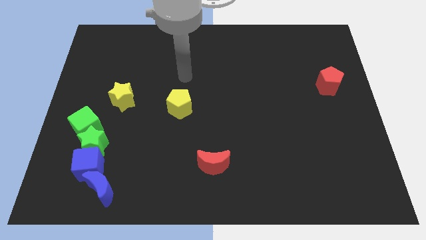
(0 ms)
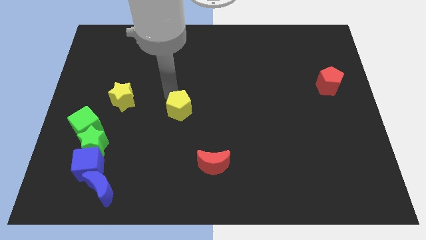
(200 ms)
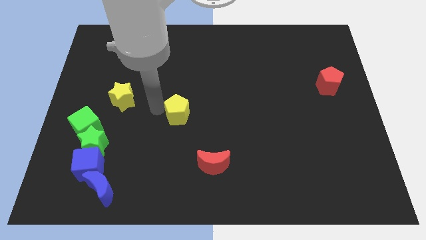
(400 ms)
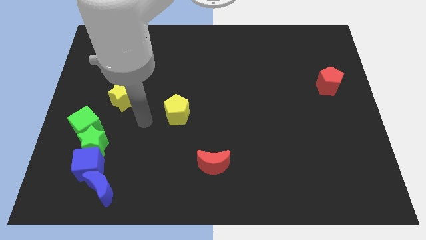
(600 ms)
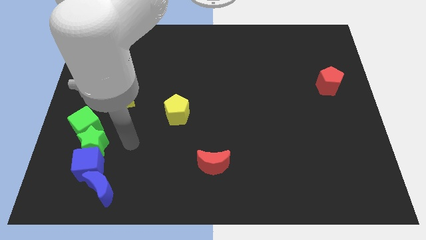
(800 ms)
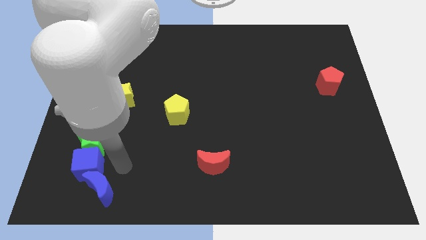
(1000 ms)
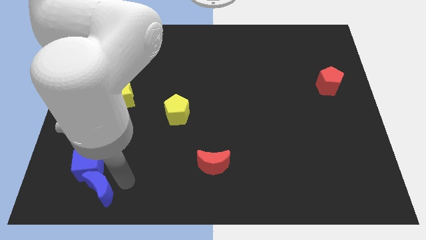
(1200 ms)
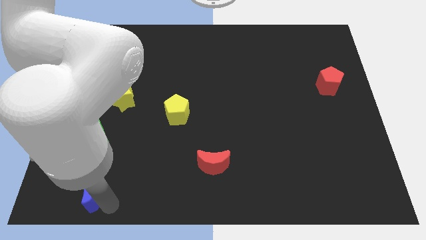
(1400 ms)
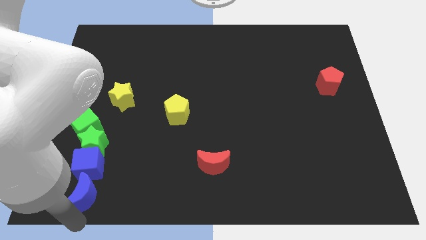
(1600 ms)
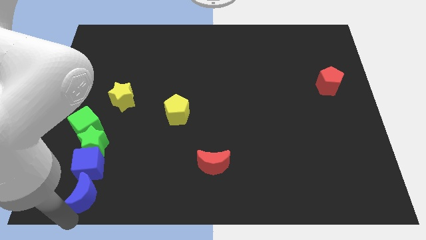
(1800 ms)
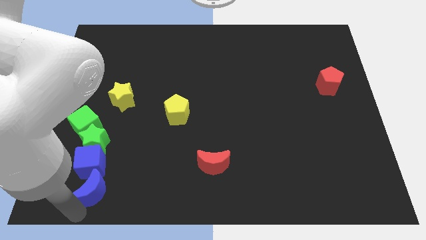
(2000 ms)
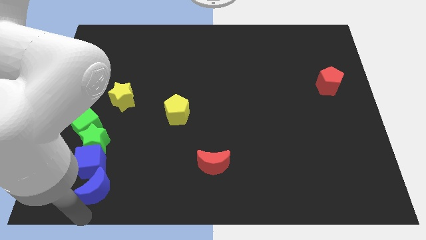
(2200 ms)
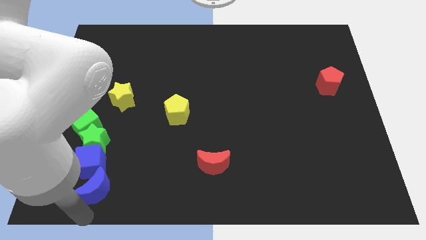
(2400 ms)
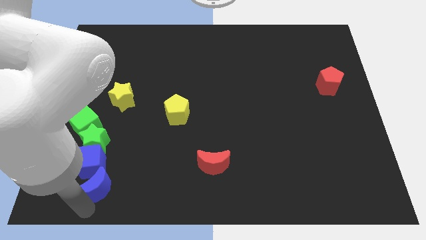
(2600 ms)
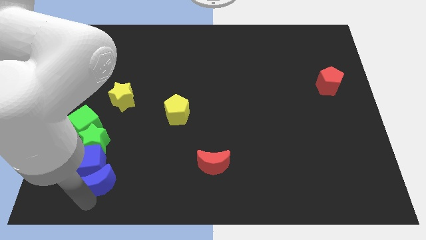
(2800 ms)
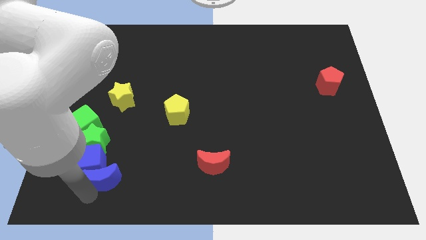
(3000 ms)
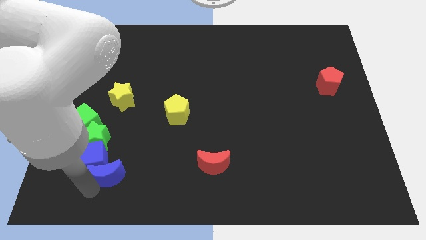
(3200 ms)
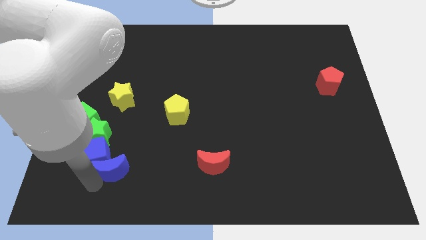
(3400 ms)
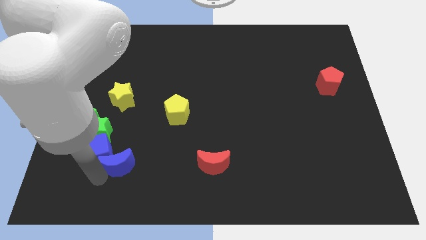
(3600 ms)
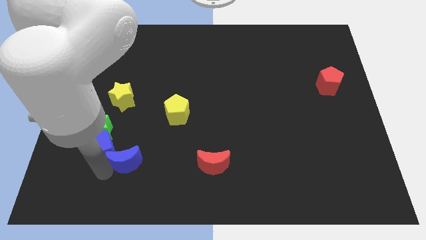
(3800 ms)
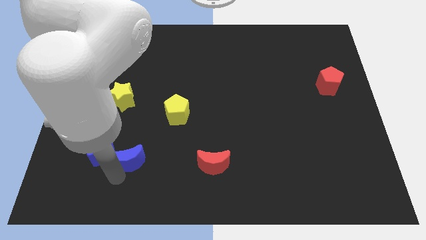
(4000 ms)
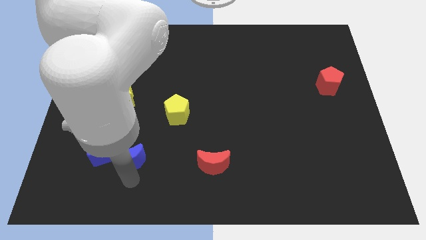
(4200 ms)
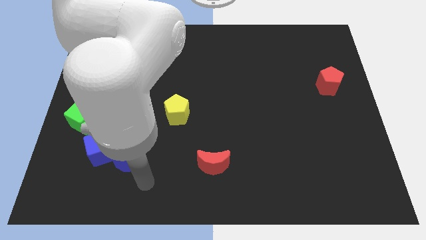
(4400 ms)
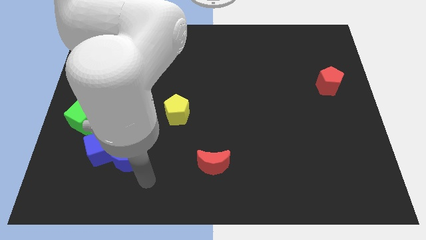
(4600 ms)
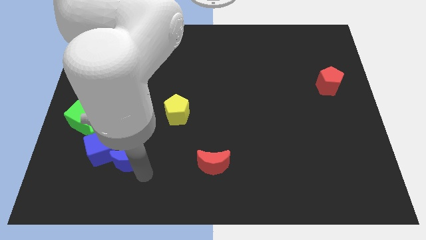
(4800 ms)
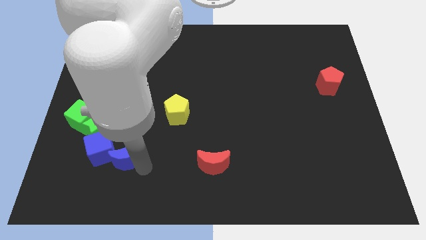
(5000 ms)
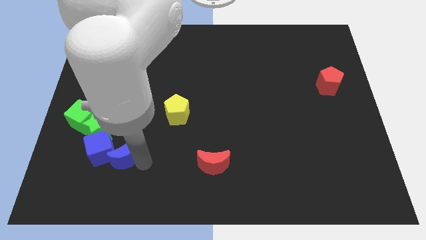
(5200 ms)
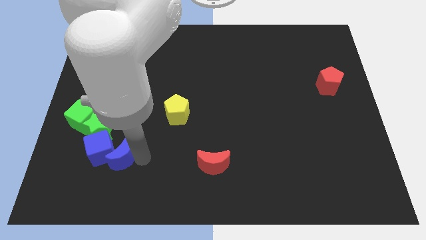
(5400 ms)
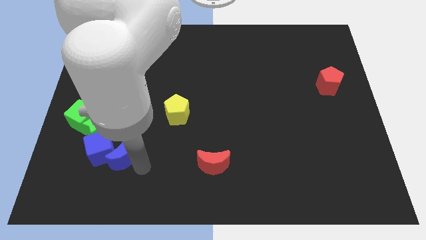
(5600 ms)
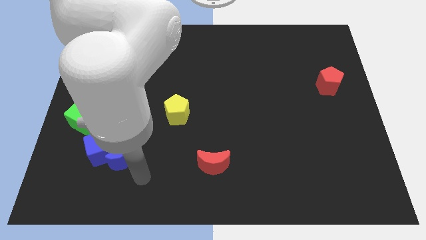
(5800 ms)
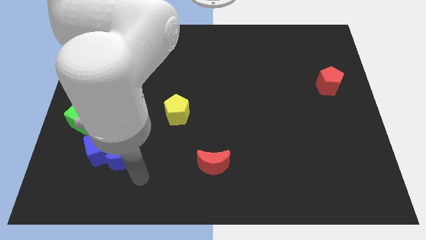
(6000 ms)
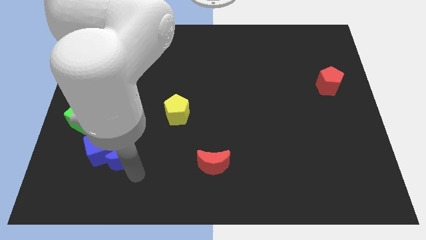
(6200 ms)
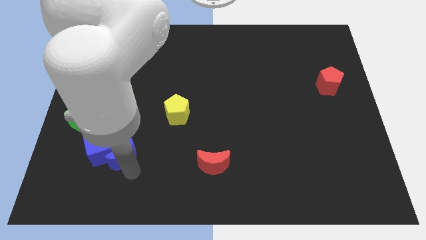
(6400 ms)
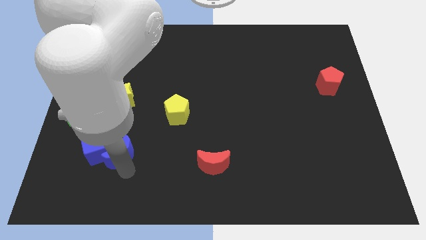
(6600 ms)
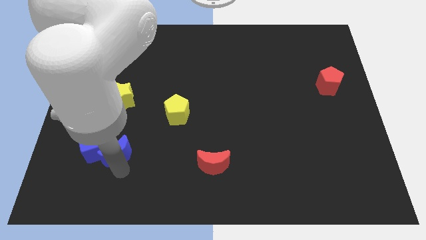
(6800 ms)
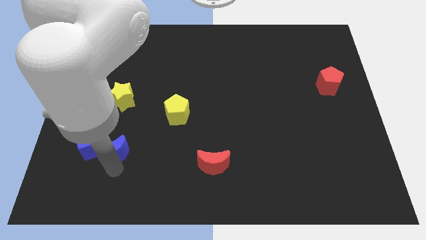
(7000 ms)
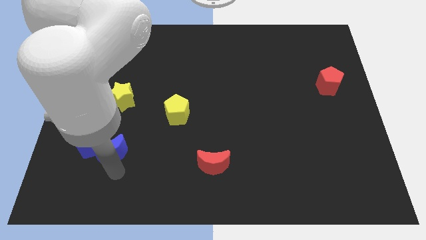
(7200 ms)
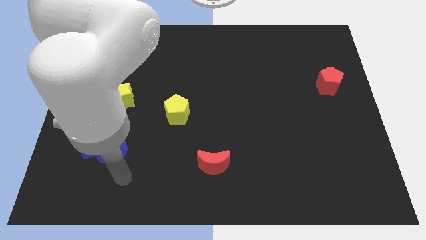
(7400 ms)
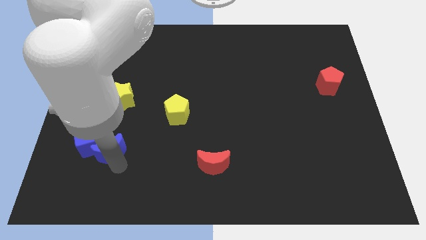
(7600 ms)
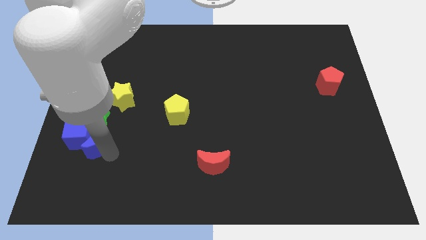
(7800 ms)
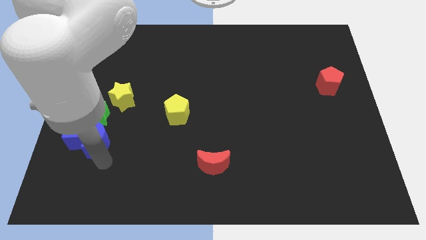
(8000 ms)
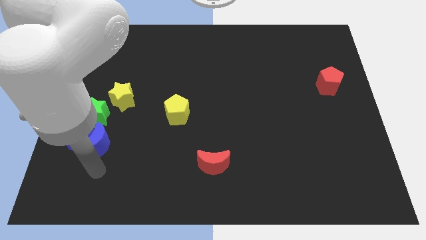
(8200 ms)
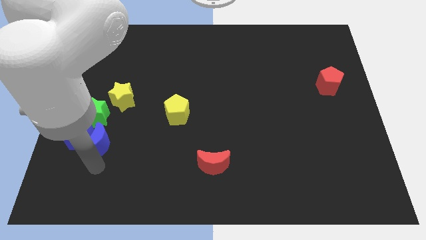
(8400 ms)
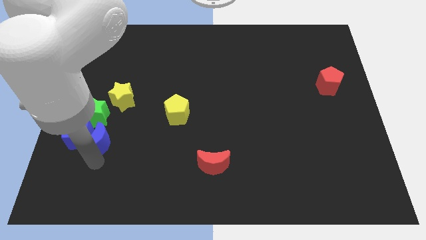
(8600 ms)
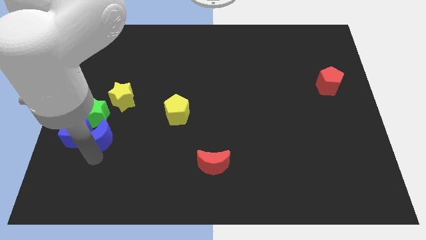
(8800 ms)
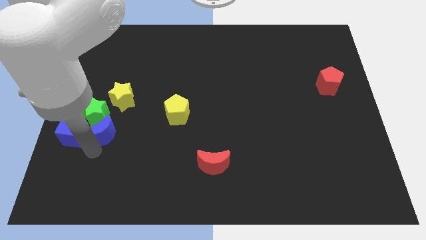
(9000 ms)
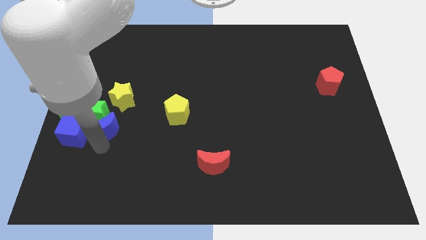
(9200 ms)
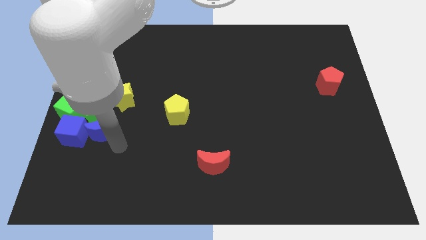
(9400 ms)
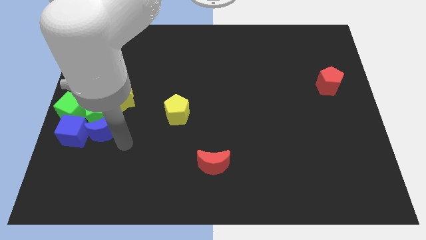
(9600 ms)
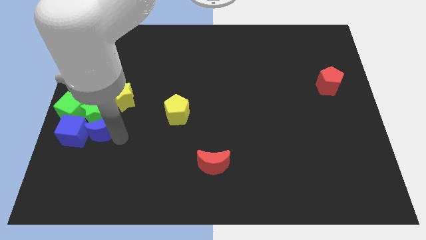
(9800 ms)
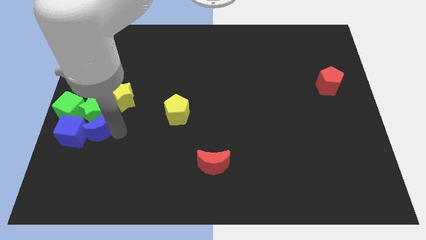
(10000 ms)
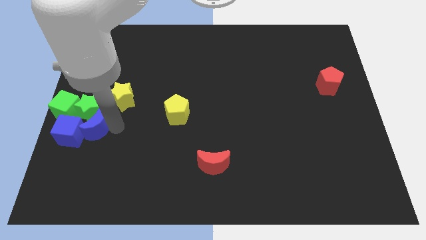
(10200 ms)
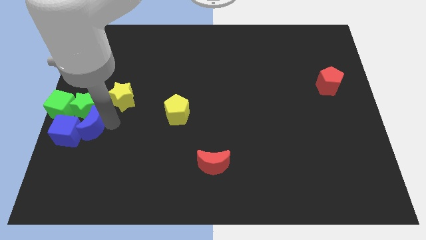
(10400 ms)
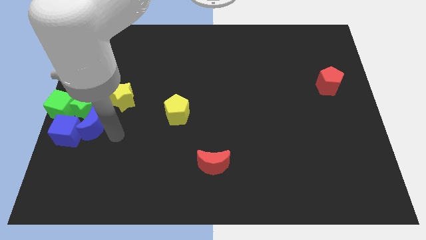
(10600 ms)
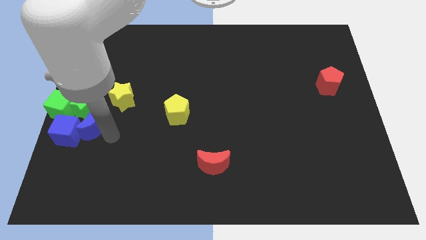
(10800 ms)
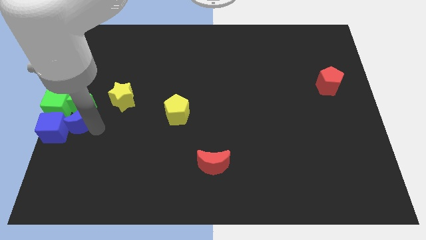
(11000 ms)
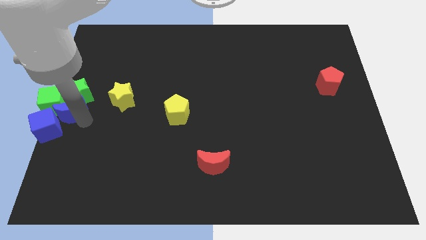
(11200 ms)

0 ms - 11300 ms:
push the blue moon towards the green cube

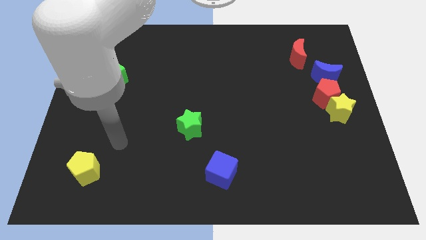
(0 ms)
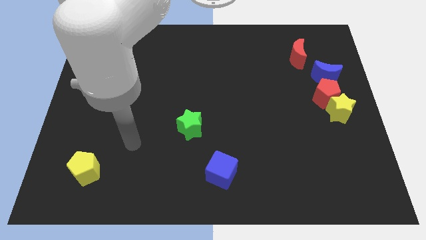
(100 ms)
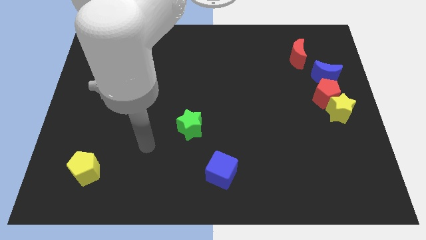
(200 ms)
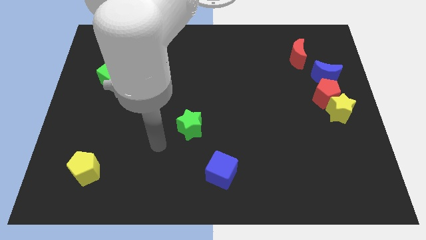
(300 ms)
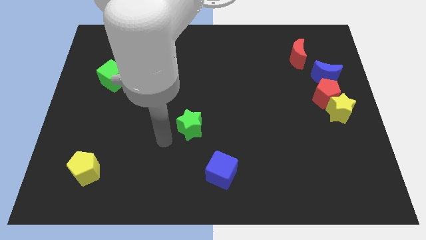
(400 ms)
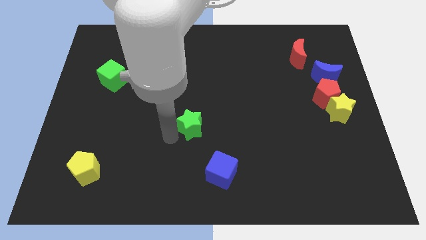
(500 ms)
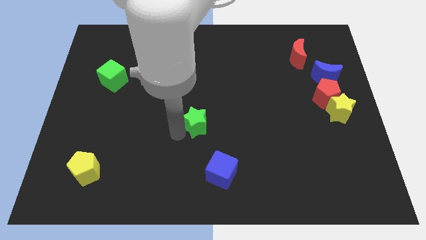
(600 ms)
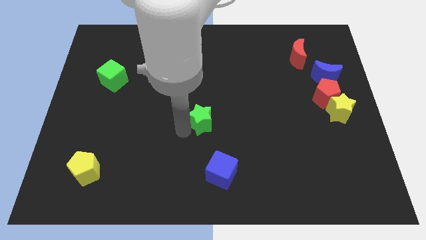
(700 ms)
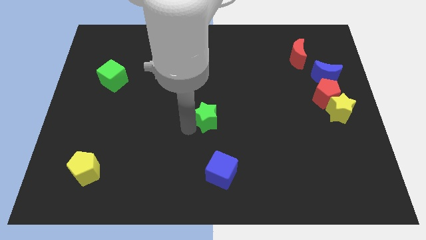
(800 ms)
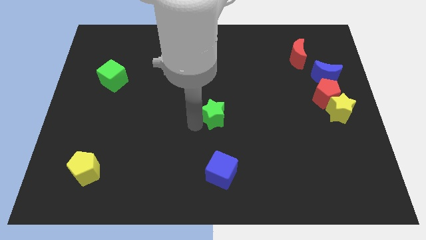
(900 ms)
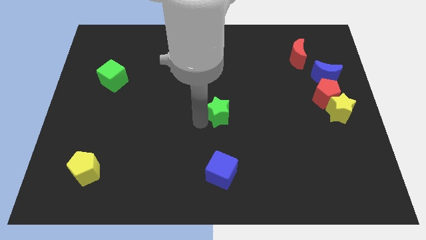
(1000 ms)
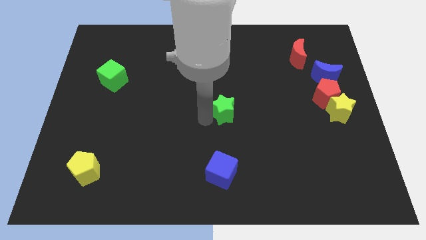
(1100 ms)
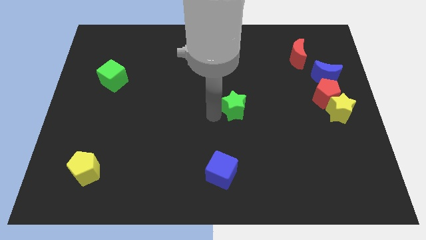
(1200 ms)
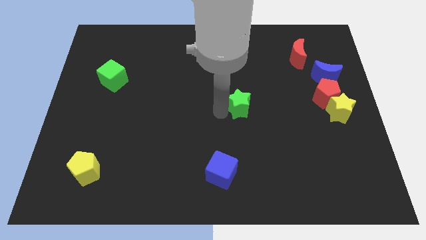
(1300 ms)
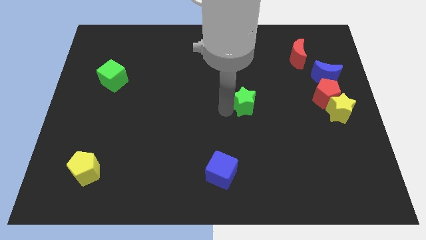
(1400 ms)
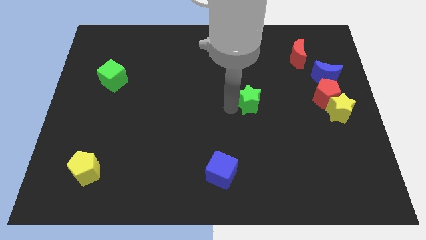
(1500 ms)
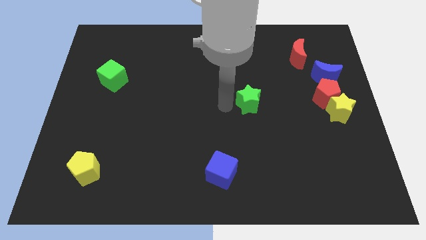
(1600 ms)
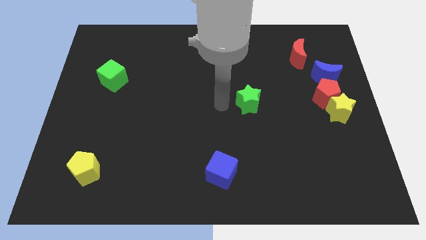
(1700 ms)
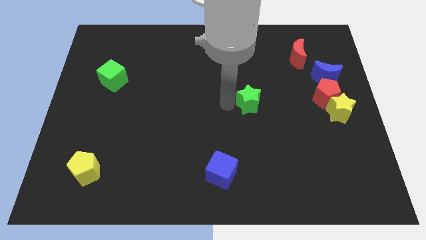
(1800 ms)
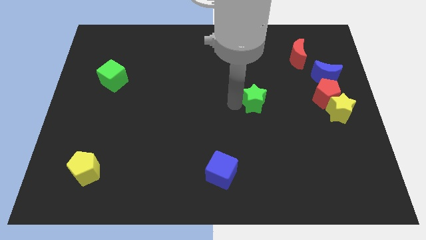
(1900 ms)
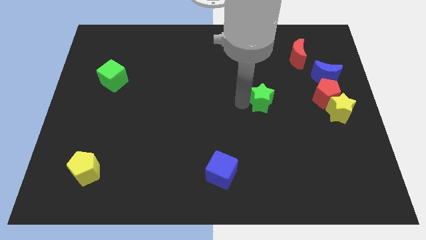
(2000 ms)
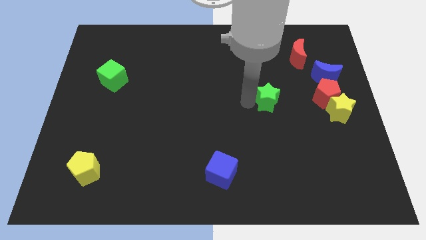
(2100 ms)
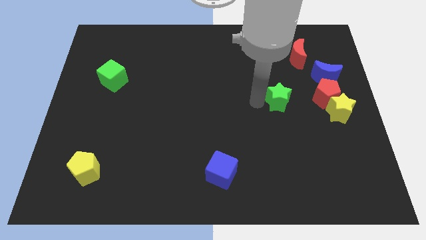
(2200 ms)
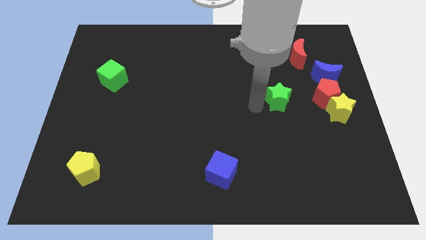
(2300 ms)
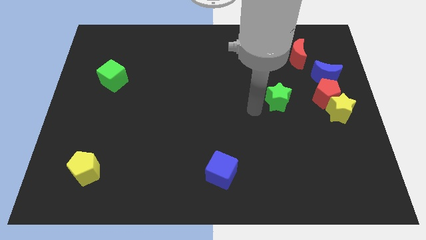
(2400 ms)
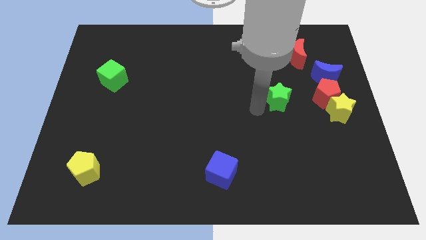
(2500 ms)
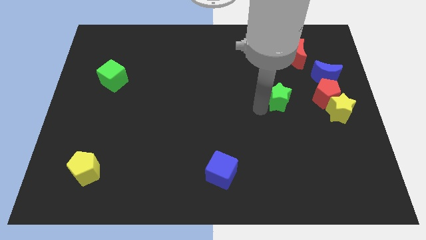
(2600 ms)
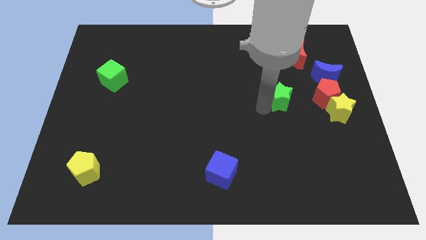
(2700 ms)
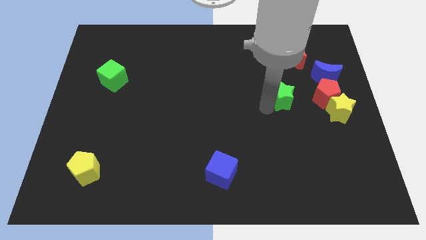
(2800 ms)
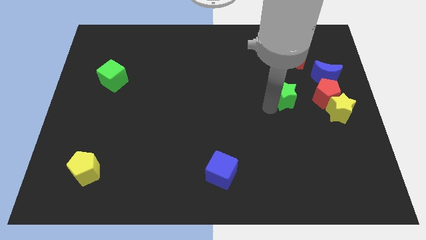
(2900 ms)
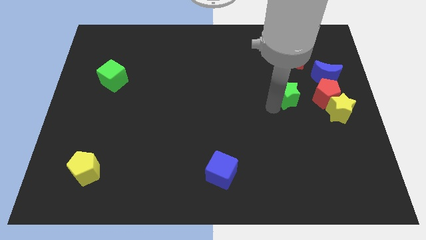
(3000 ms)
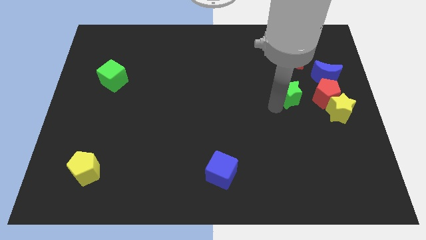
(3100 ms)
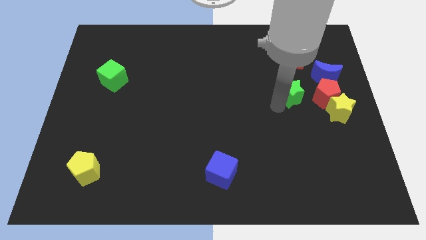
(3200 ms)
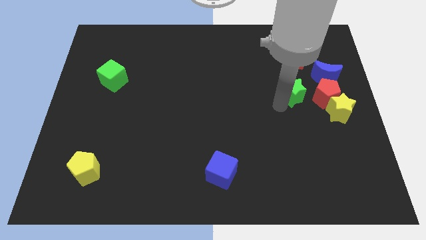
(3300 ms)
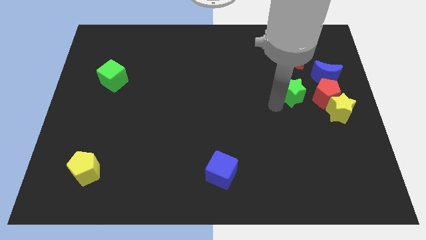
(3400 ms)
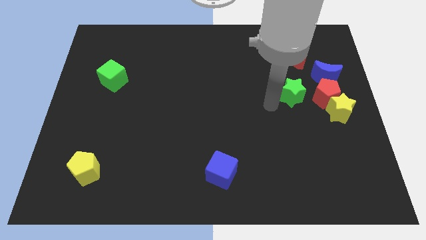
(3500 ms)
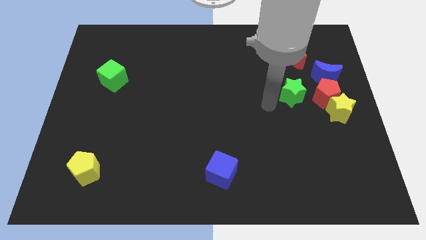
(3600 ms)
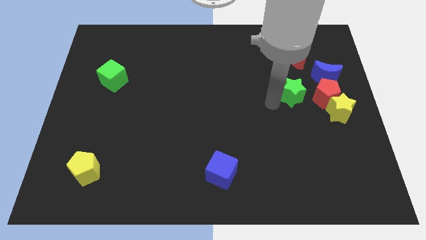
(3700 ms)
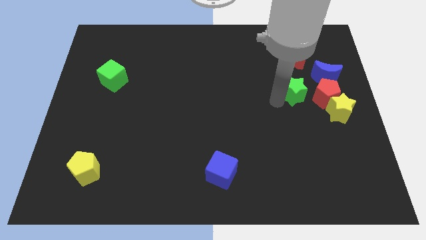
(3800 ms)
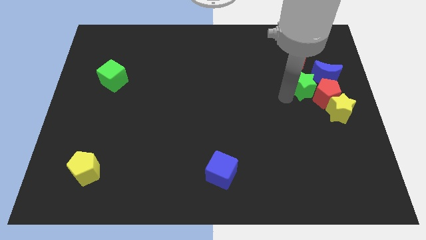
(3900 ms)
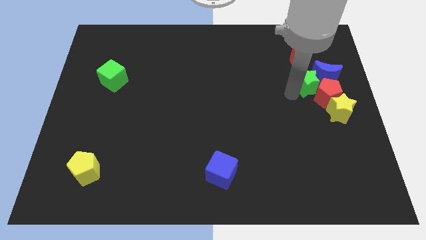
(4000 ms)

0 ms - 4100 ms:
push the green star next to the blue moon
